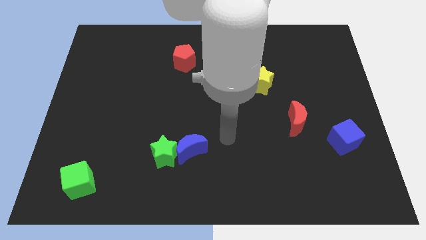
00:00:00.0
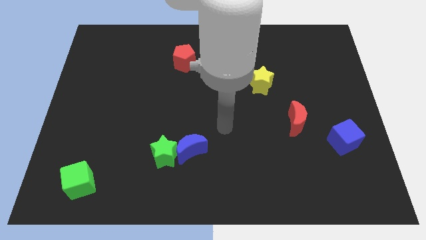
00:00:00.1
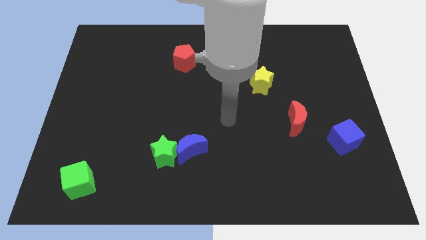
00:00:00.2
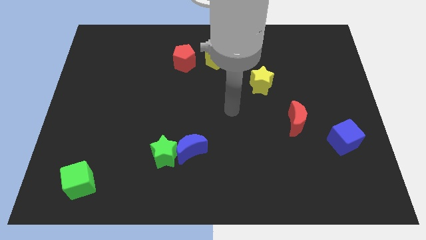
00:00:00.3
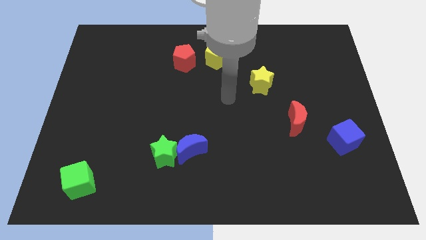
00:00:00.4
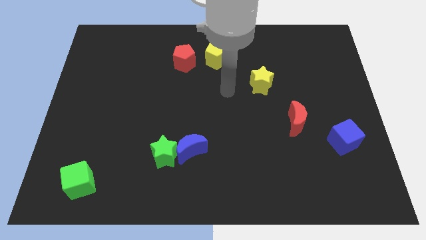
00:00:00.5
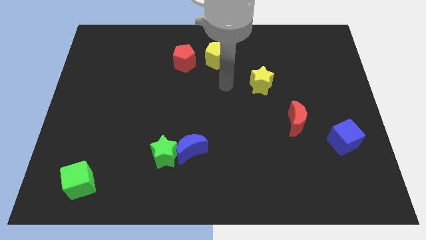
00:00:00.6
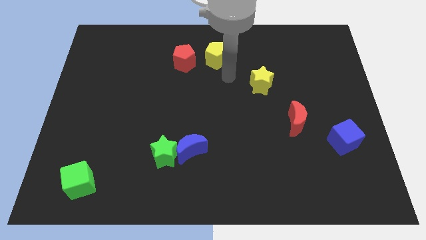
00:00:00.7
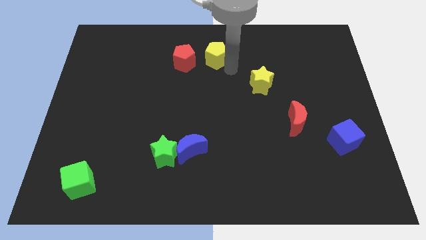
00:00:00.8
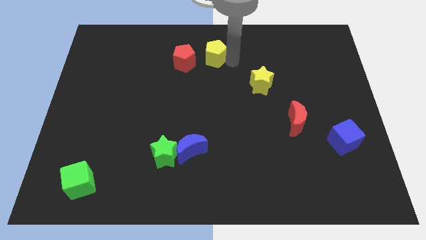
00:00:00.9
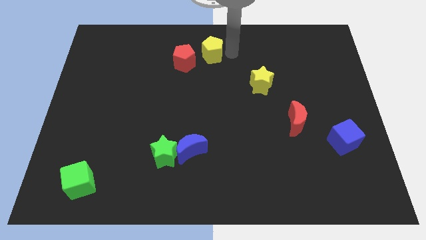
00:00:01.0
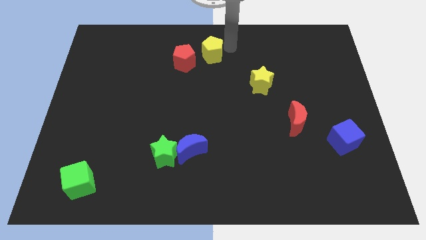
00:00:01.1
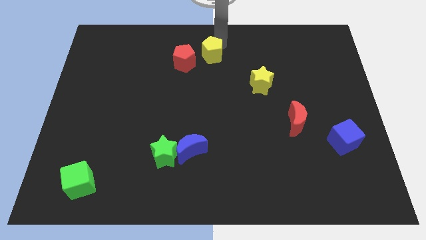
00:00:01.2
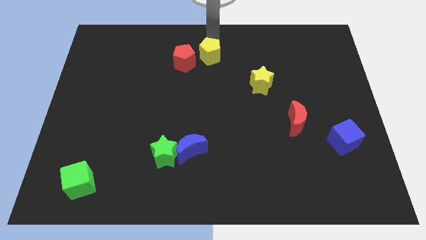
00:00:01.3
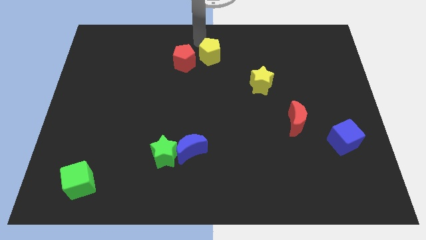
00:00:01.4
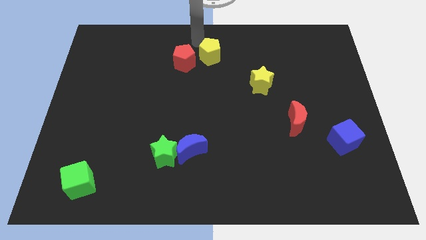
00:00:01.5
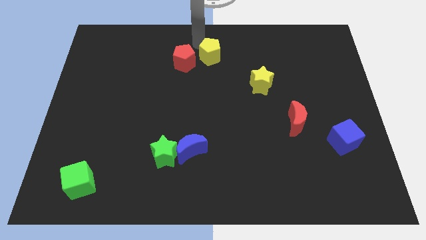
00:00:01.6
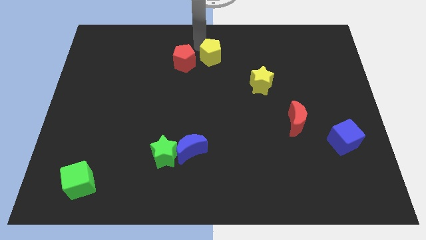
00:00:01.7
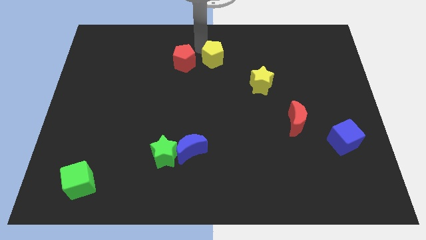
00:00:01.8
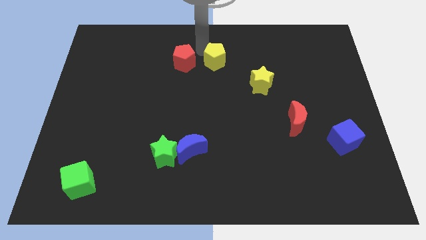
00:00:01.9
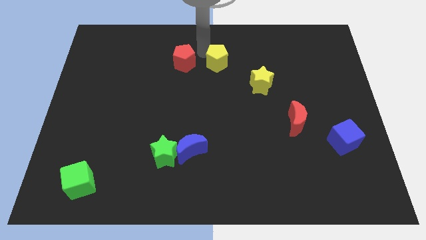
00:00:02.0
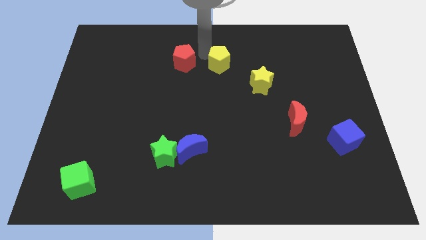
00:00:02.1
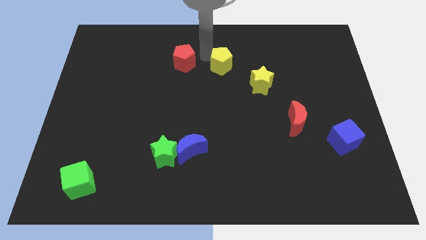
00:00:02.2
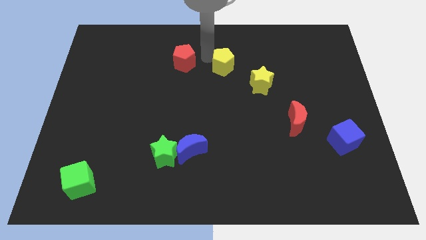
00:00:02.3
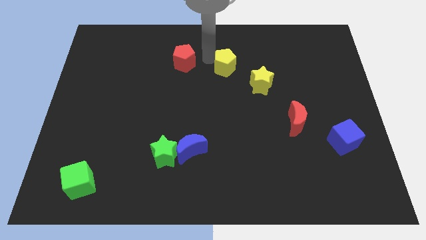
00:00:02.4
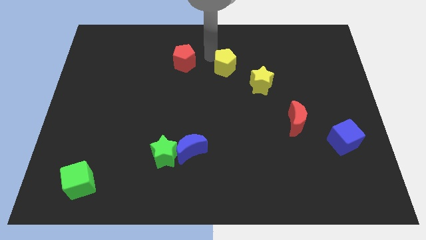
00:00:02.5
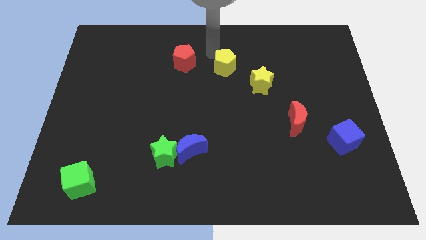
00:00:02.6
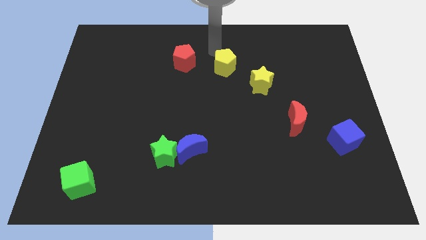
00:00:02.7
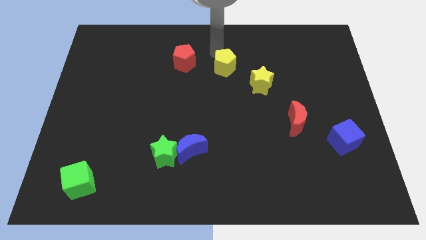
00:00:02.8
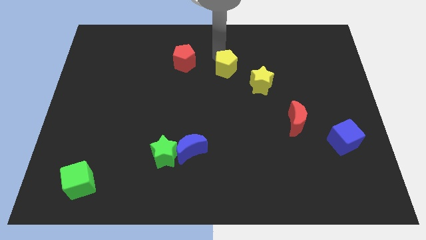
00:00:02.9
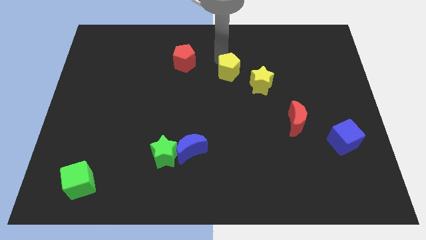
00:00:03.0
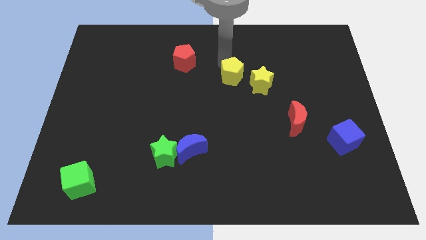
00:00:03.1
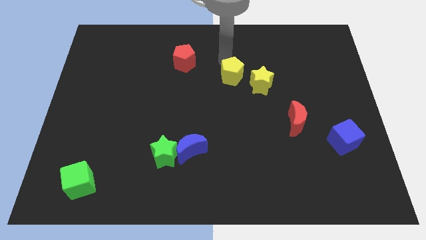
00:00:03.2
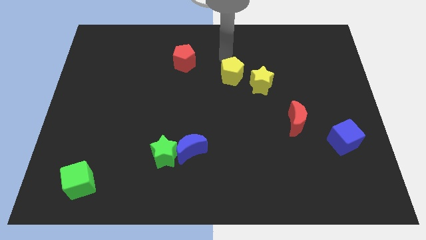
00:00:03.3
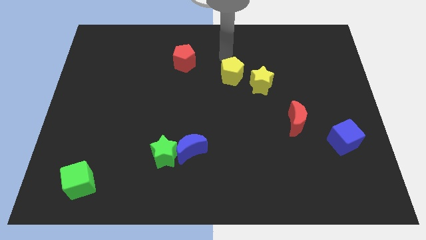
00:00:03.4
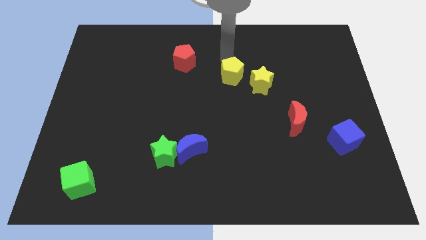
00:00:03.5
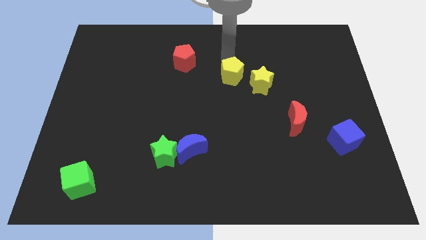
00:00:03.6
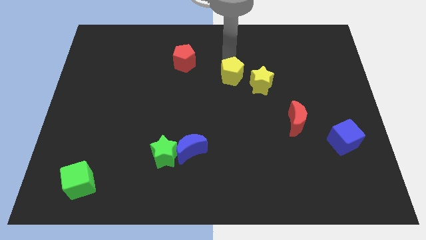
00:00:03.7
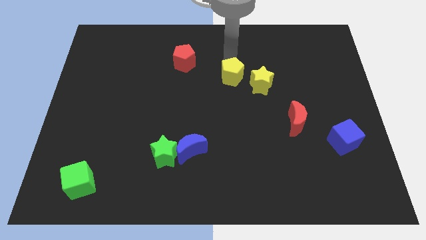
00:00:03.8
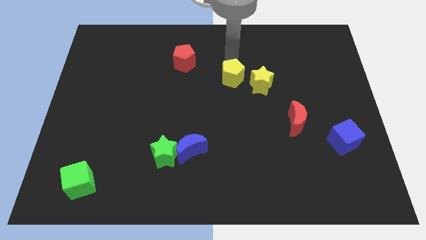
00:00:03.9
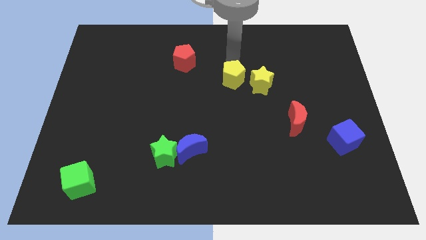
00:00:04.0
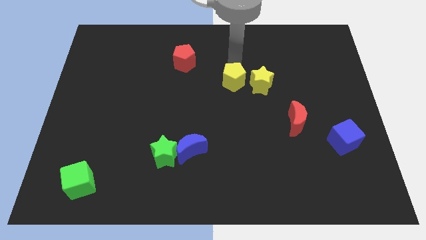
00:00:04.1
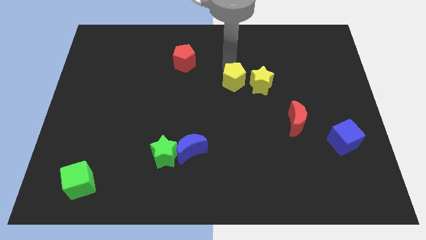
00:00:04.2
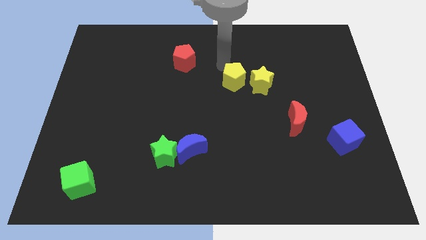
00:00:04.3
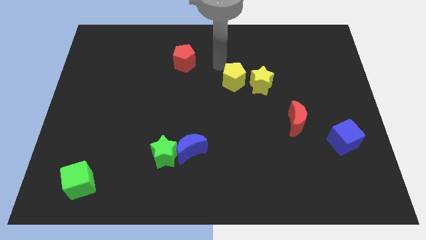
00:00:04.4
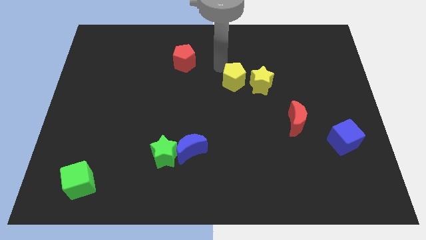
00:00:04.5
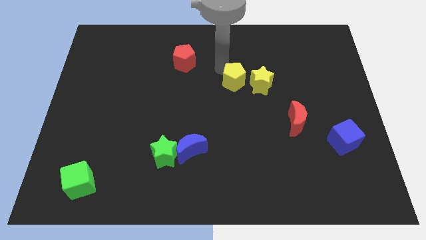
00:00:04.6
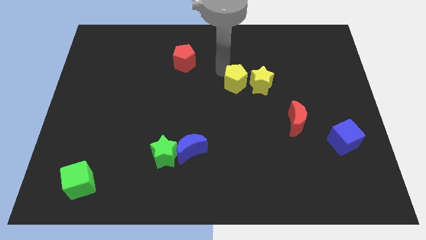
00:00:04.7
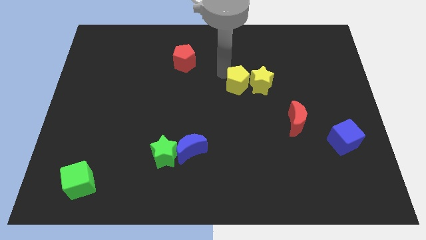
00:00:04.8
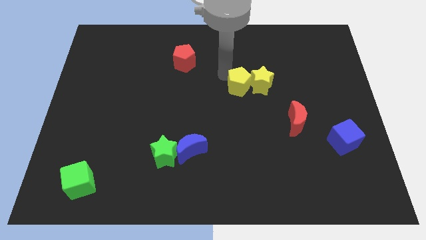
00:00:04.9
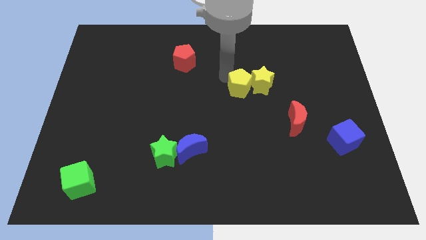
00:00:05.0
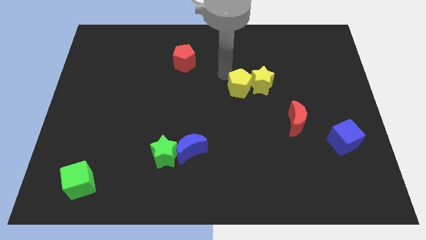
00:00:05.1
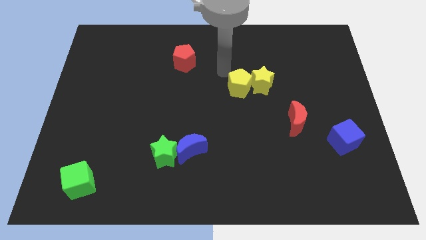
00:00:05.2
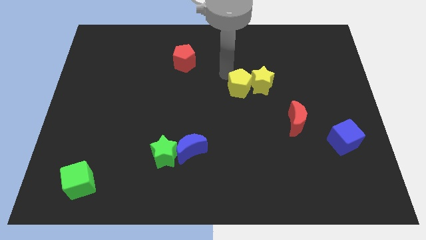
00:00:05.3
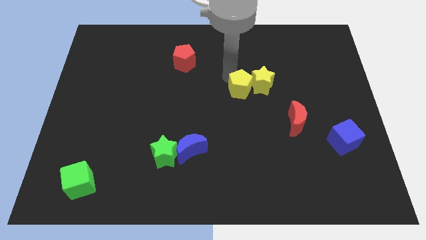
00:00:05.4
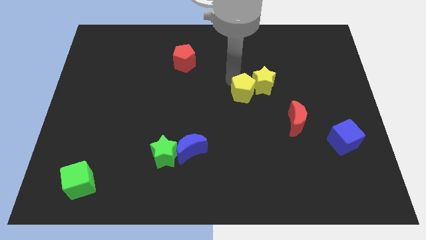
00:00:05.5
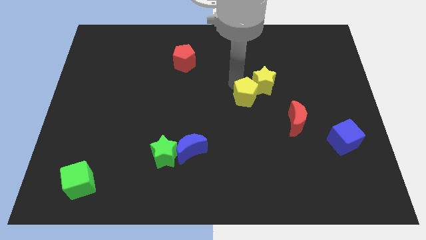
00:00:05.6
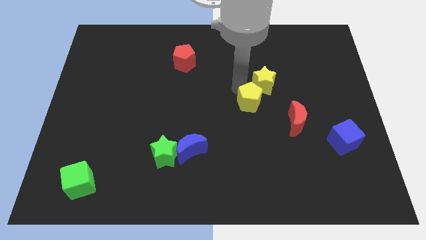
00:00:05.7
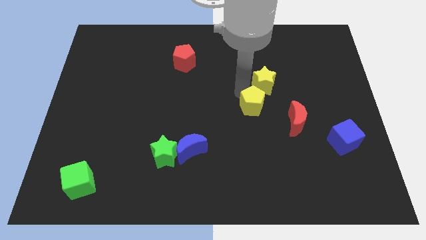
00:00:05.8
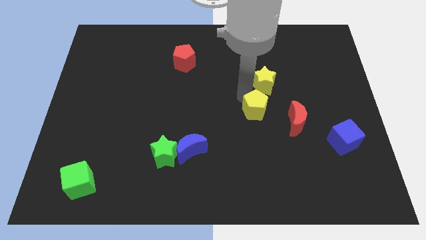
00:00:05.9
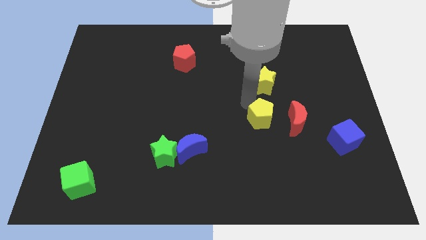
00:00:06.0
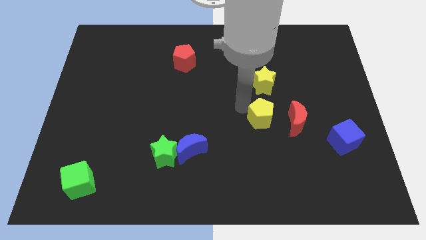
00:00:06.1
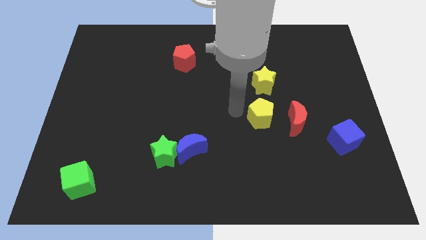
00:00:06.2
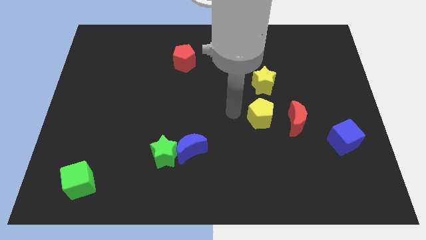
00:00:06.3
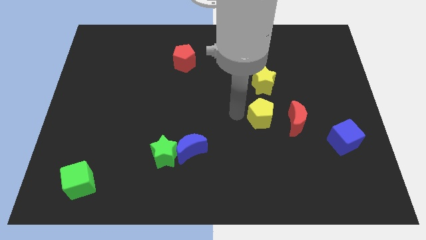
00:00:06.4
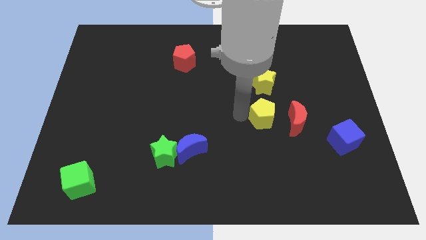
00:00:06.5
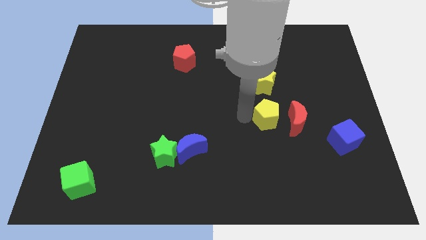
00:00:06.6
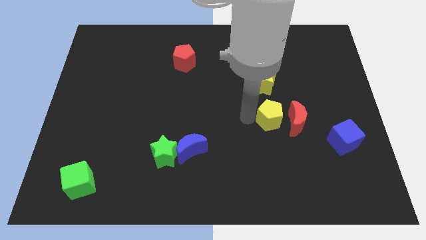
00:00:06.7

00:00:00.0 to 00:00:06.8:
slide the yellow pentagon next to the red moon
